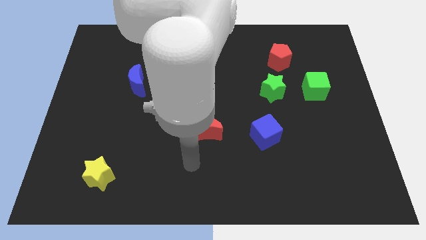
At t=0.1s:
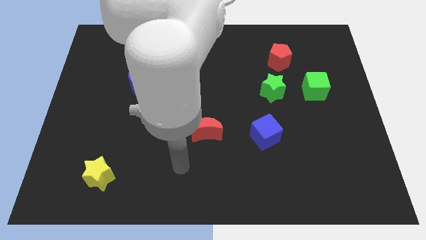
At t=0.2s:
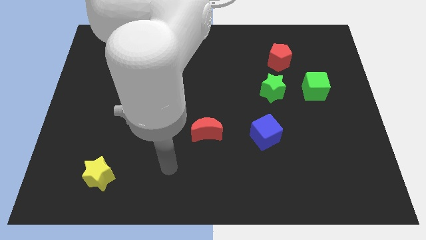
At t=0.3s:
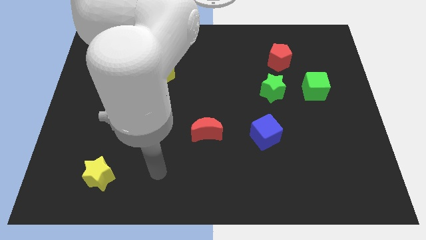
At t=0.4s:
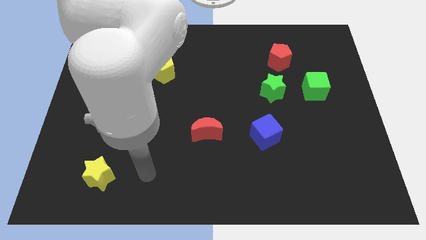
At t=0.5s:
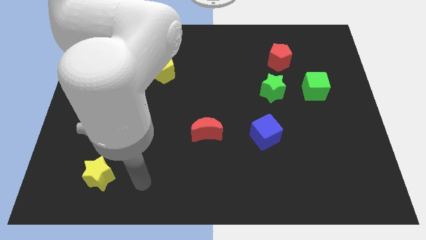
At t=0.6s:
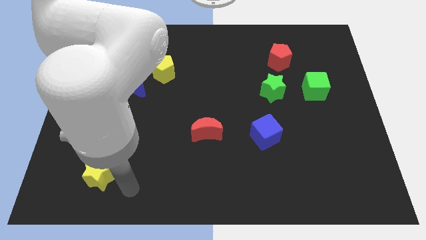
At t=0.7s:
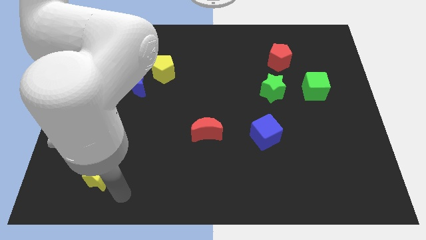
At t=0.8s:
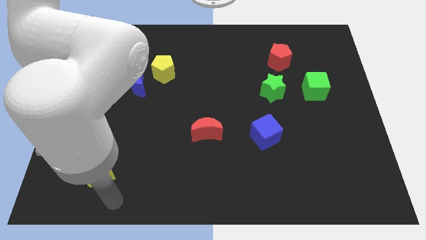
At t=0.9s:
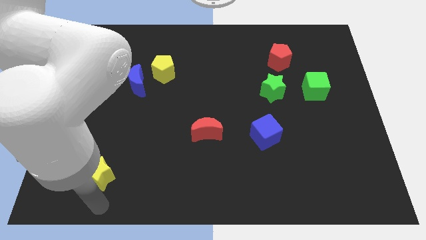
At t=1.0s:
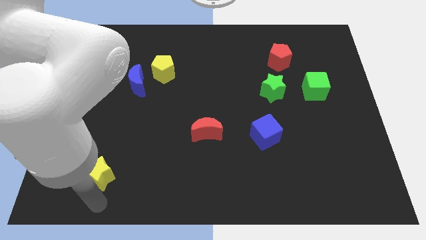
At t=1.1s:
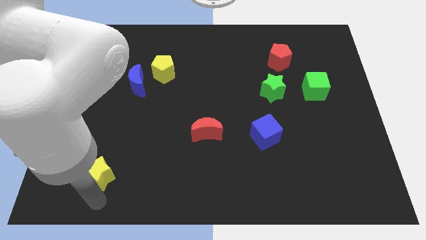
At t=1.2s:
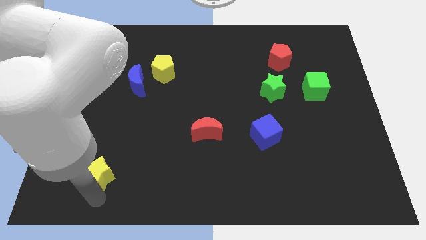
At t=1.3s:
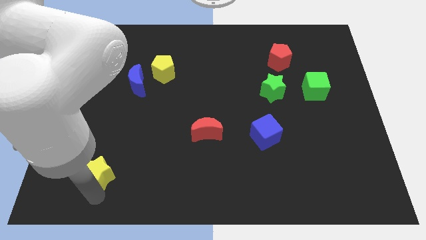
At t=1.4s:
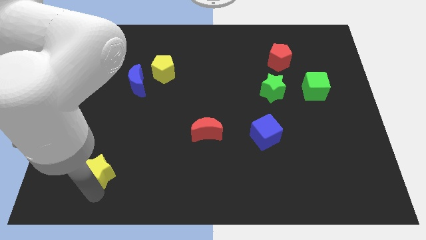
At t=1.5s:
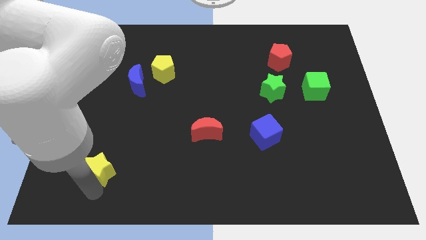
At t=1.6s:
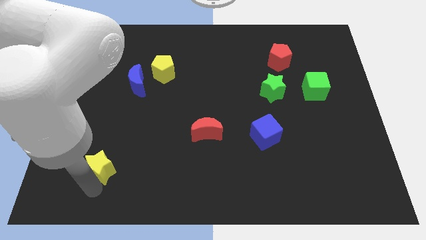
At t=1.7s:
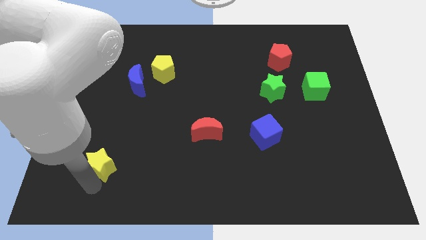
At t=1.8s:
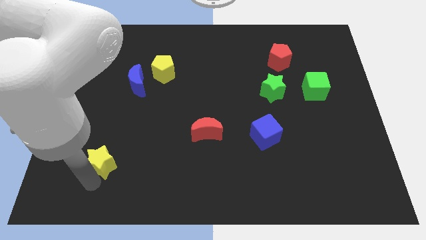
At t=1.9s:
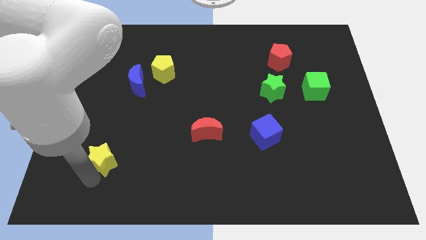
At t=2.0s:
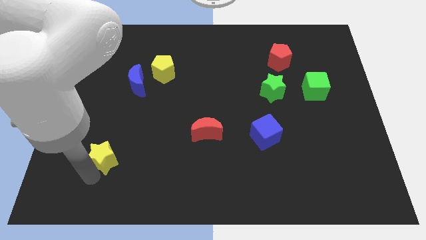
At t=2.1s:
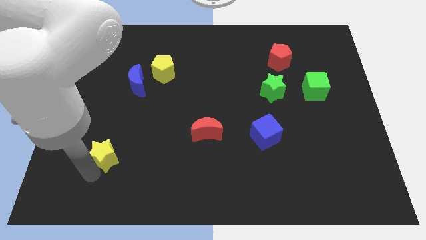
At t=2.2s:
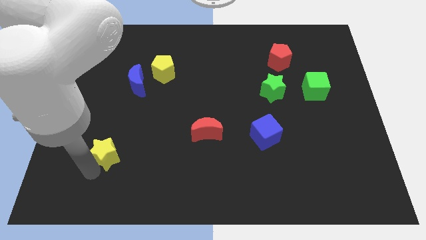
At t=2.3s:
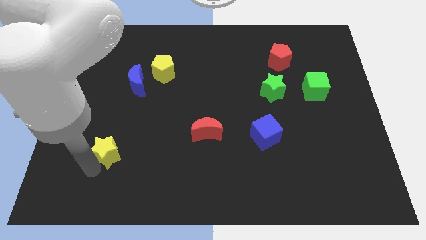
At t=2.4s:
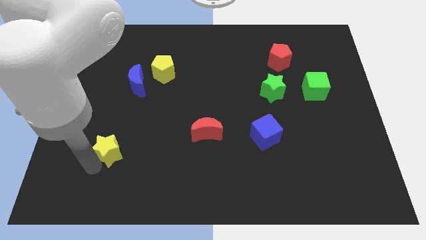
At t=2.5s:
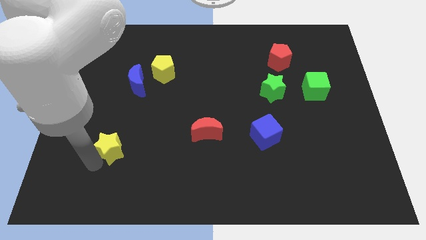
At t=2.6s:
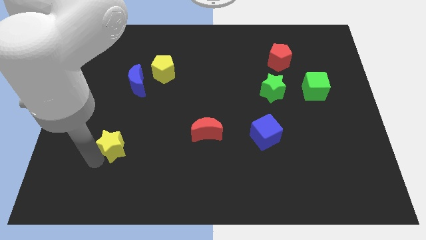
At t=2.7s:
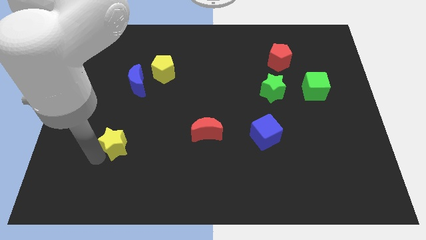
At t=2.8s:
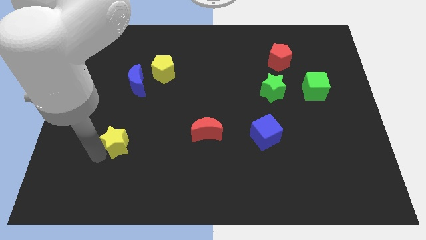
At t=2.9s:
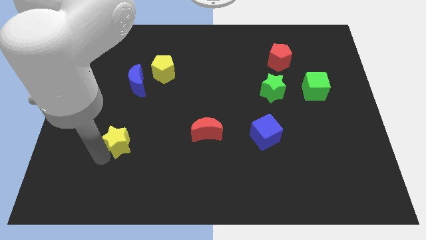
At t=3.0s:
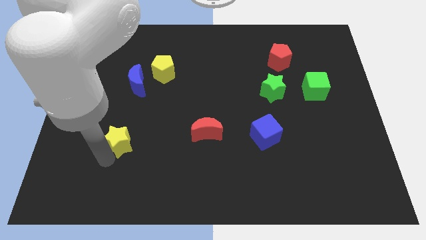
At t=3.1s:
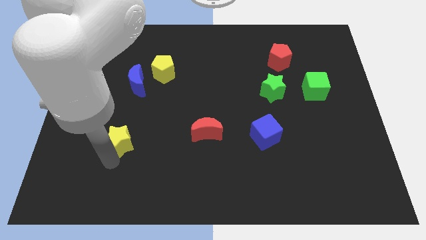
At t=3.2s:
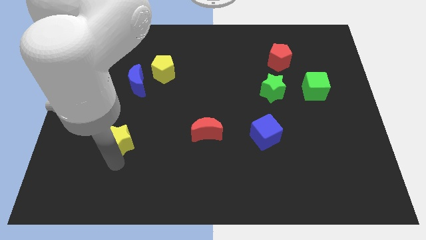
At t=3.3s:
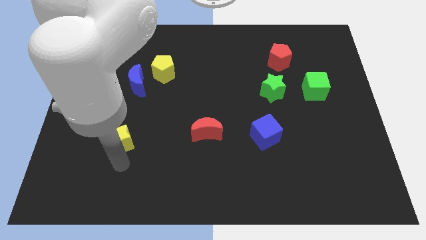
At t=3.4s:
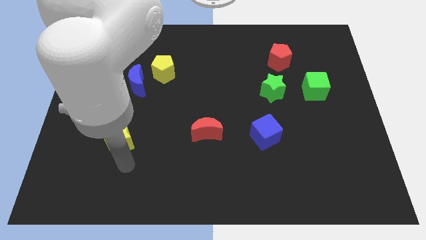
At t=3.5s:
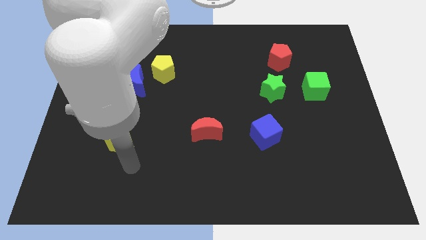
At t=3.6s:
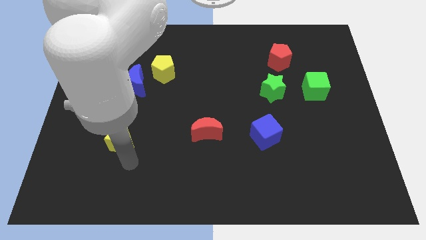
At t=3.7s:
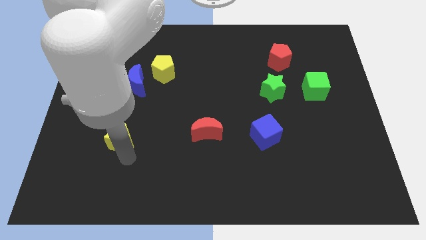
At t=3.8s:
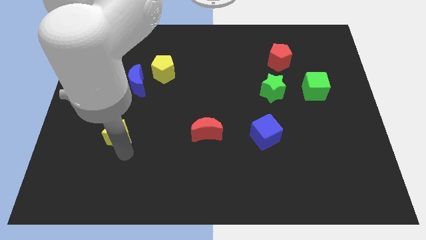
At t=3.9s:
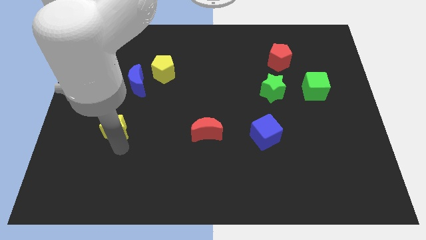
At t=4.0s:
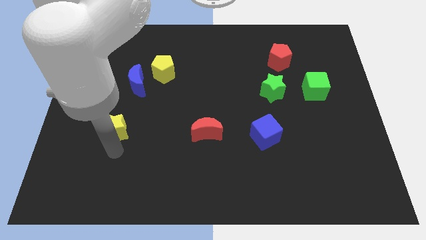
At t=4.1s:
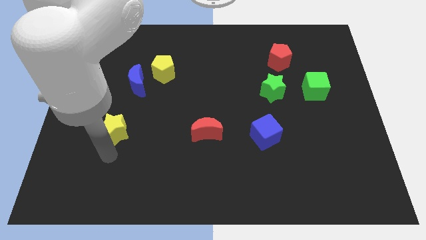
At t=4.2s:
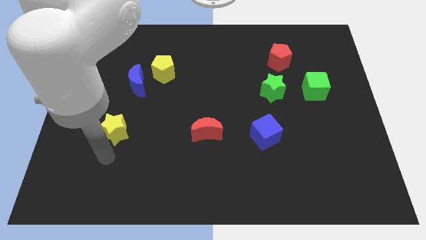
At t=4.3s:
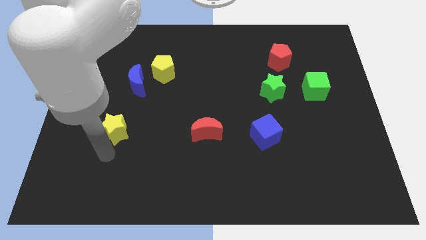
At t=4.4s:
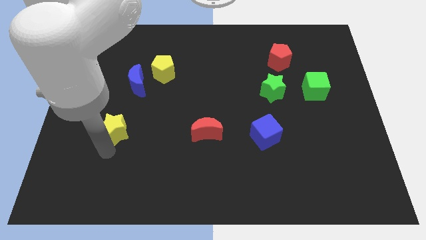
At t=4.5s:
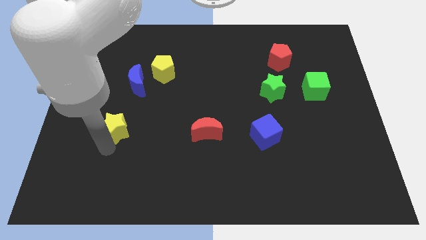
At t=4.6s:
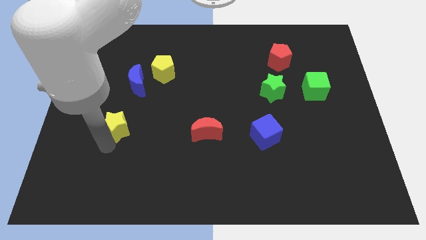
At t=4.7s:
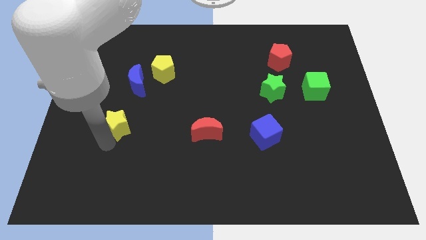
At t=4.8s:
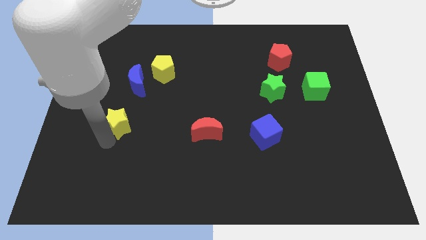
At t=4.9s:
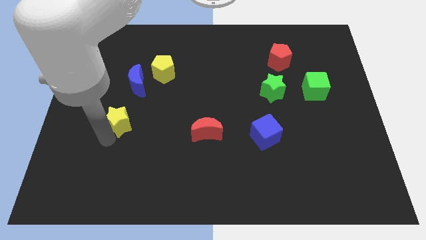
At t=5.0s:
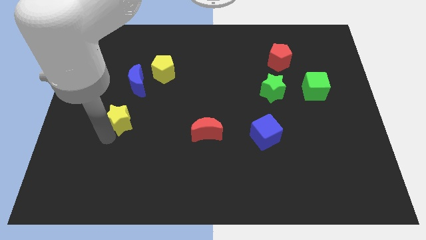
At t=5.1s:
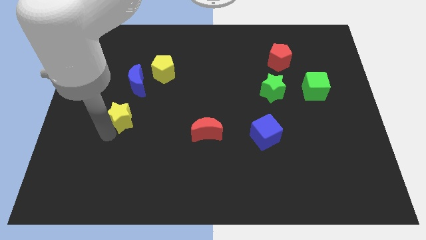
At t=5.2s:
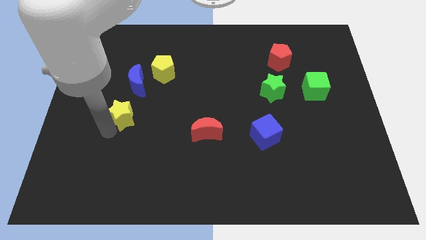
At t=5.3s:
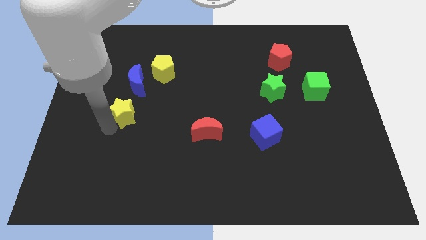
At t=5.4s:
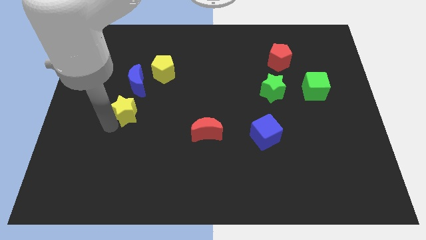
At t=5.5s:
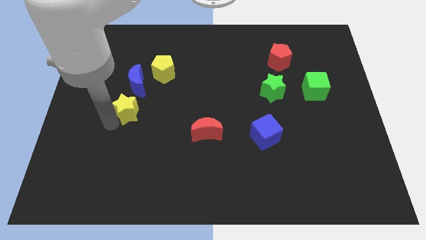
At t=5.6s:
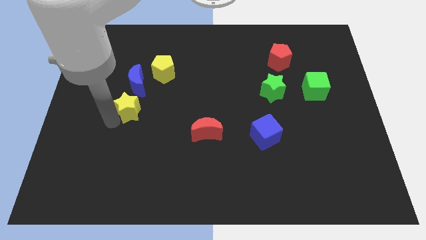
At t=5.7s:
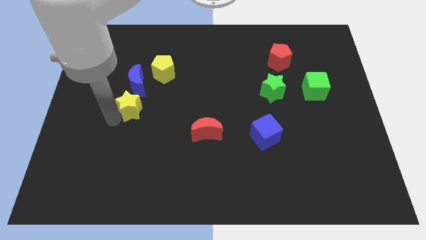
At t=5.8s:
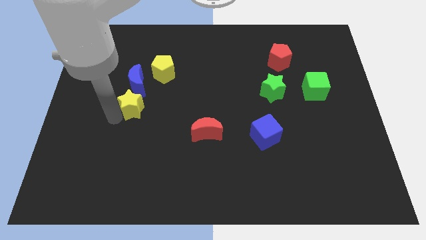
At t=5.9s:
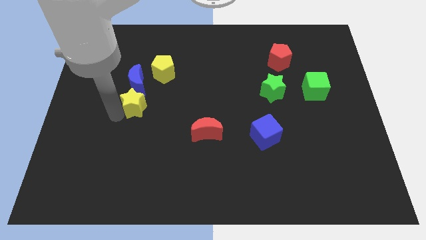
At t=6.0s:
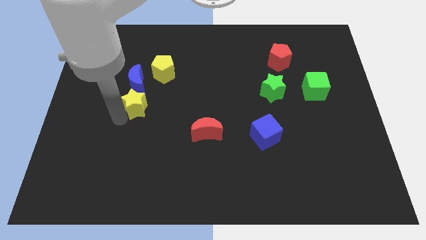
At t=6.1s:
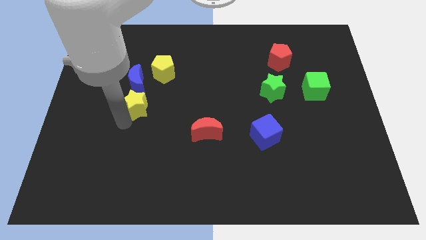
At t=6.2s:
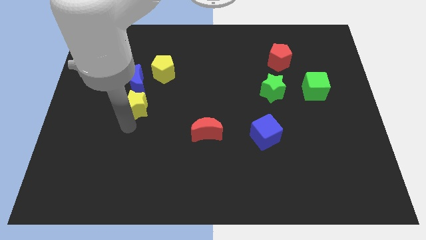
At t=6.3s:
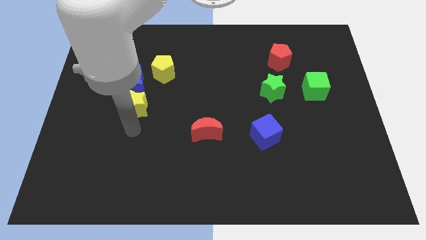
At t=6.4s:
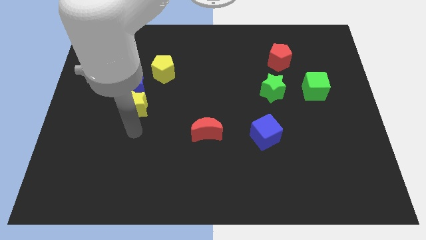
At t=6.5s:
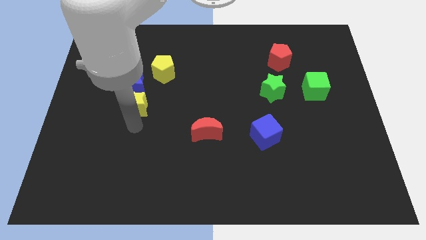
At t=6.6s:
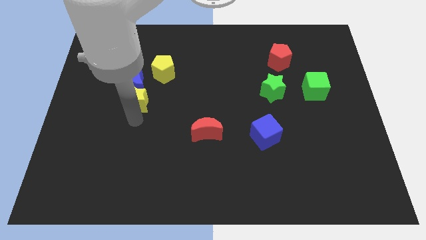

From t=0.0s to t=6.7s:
put the yellow star to the blue moon

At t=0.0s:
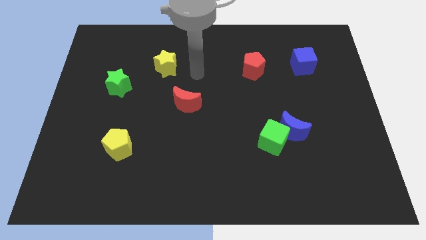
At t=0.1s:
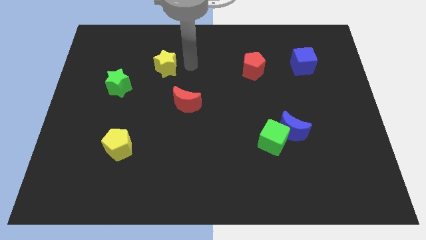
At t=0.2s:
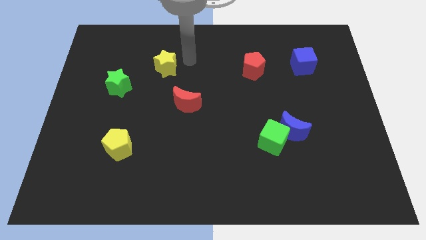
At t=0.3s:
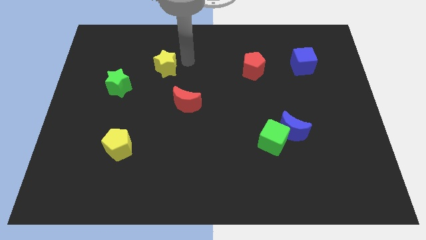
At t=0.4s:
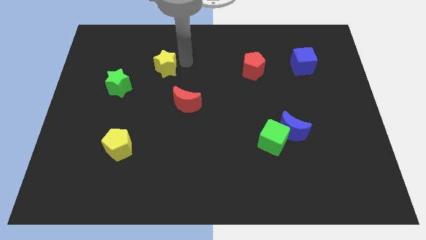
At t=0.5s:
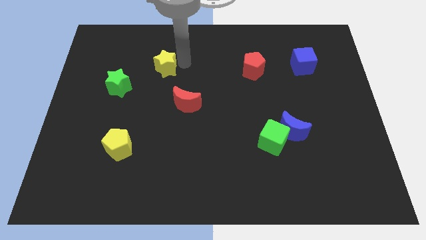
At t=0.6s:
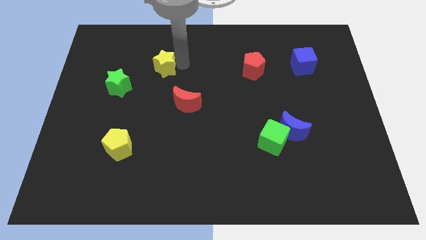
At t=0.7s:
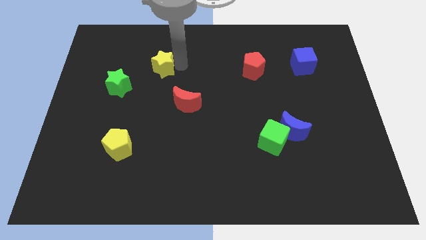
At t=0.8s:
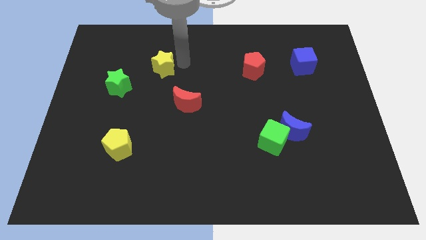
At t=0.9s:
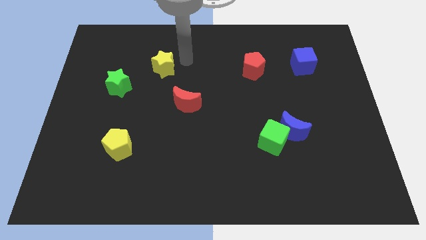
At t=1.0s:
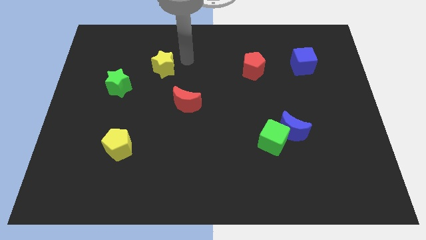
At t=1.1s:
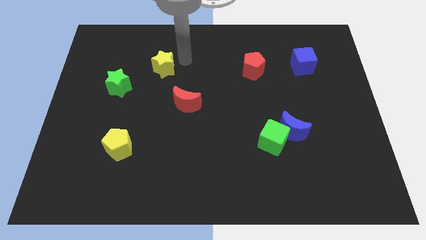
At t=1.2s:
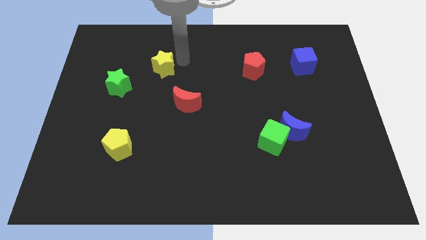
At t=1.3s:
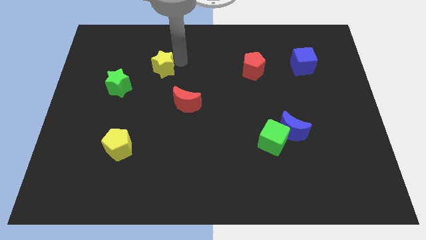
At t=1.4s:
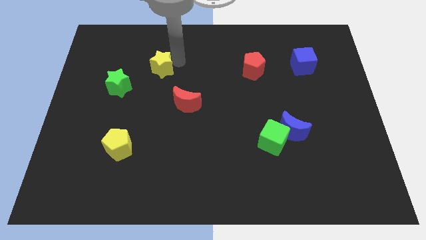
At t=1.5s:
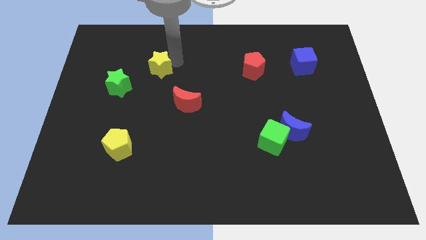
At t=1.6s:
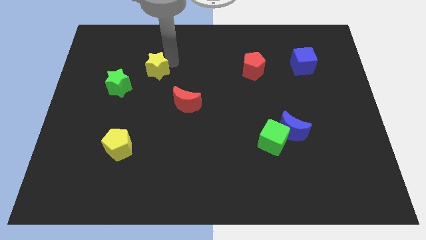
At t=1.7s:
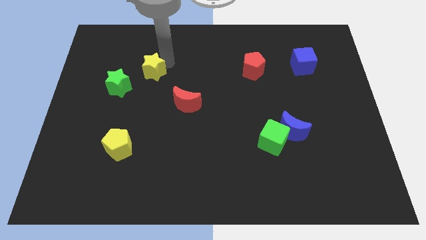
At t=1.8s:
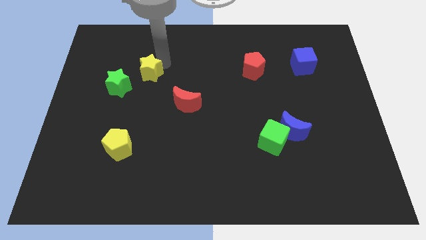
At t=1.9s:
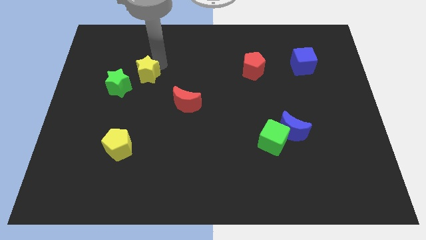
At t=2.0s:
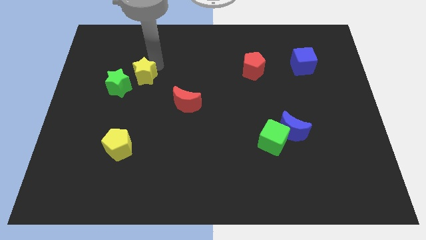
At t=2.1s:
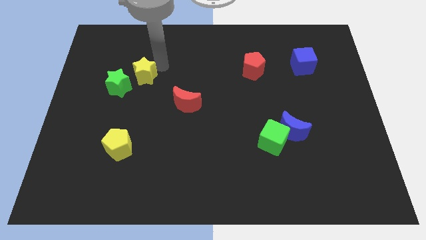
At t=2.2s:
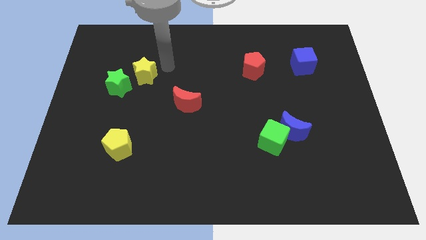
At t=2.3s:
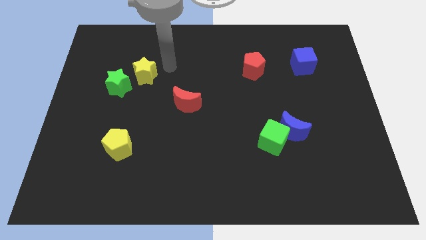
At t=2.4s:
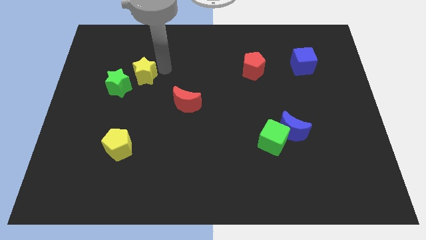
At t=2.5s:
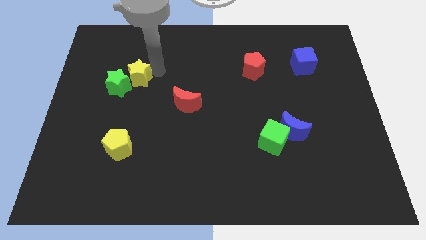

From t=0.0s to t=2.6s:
push the yellow star close to the green star
